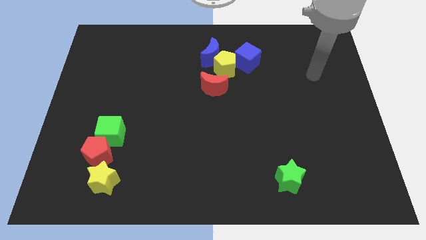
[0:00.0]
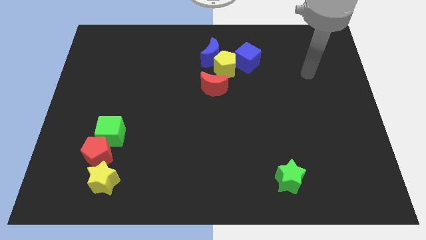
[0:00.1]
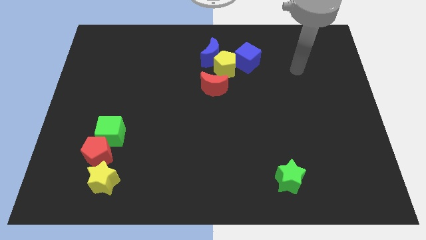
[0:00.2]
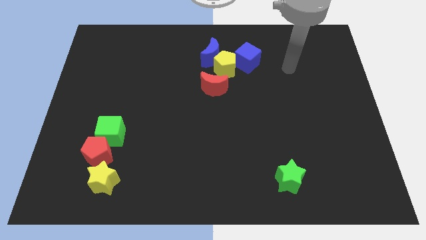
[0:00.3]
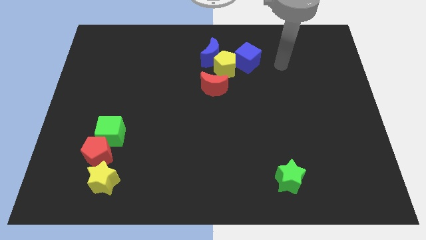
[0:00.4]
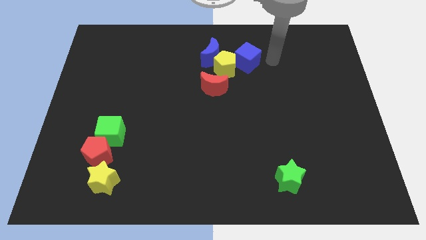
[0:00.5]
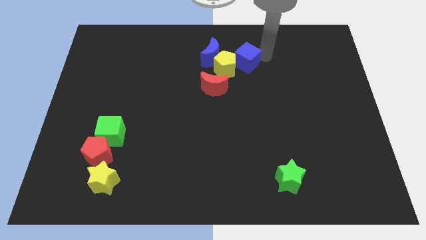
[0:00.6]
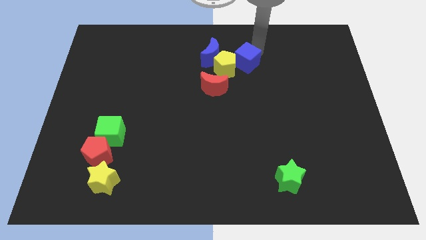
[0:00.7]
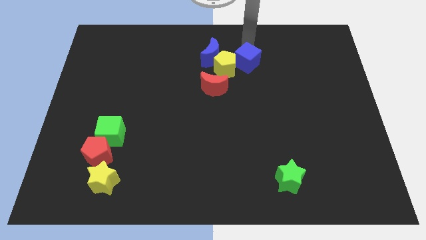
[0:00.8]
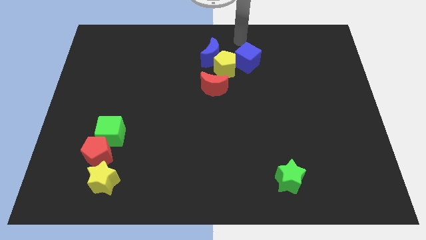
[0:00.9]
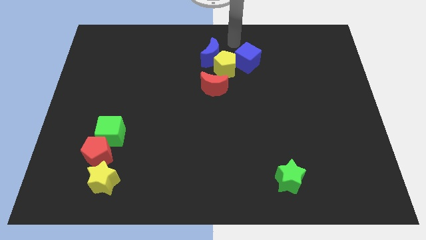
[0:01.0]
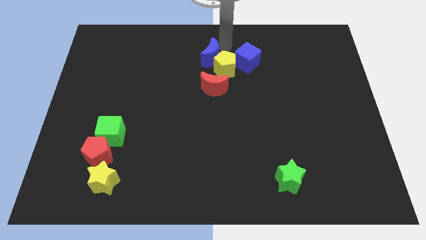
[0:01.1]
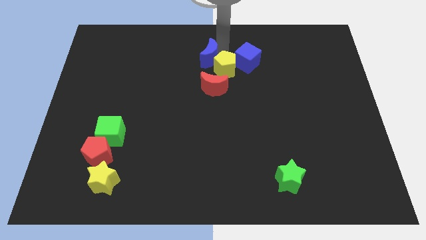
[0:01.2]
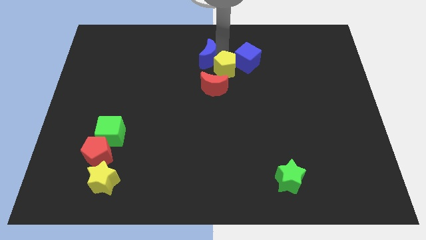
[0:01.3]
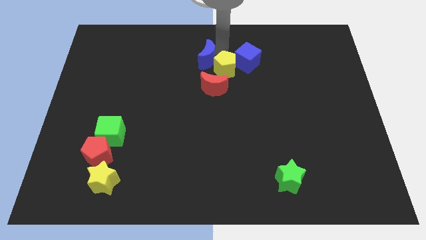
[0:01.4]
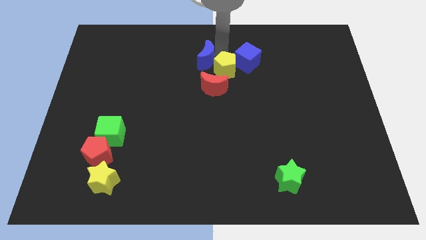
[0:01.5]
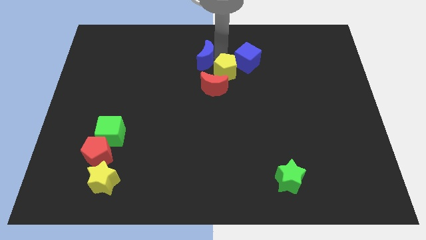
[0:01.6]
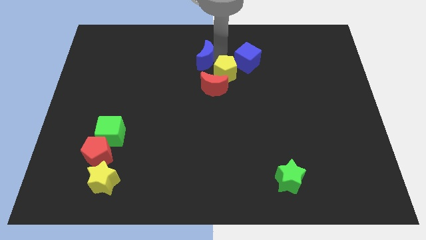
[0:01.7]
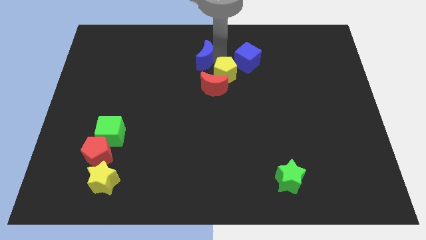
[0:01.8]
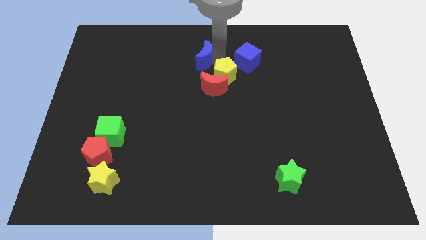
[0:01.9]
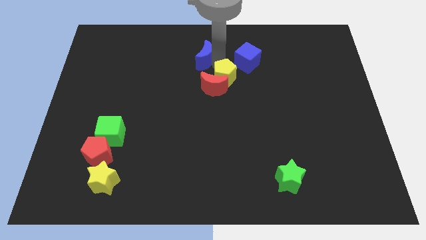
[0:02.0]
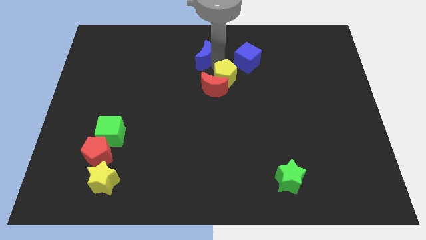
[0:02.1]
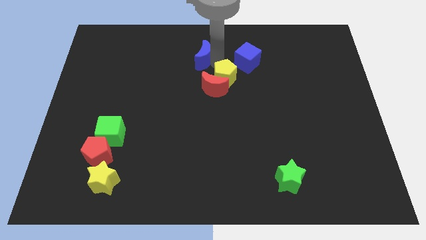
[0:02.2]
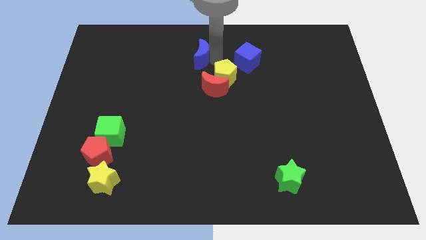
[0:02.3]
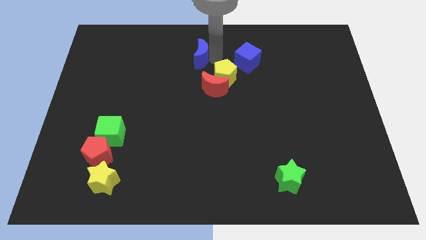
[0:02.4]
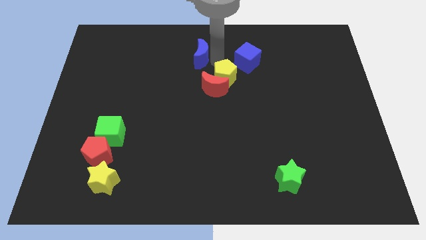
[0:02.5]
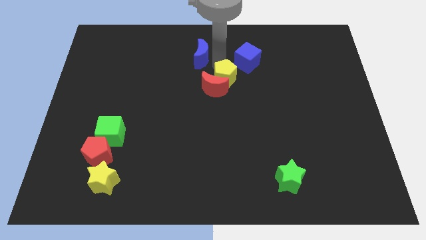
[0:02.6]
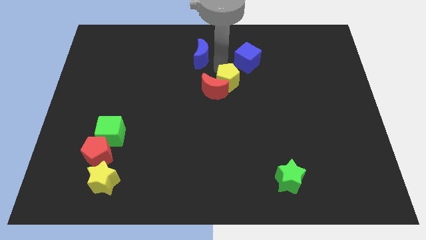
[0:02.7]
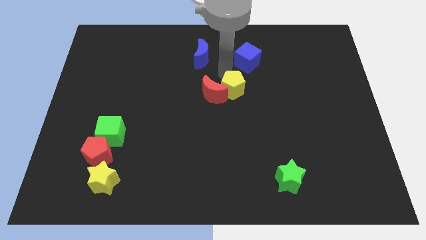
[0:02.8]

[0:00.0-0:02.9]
slightly slide the yellow pentagon downwards

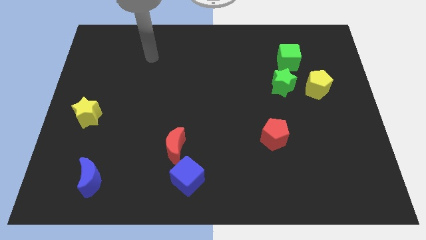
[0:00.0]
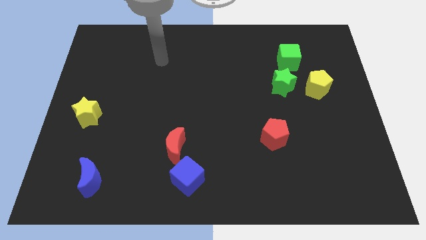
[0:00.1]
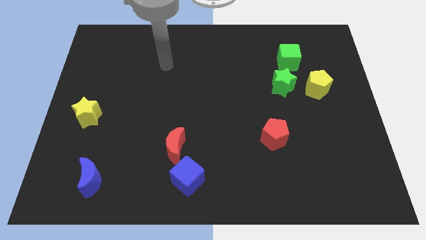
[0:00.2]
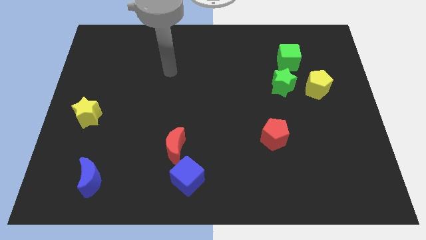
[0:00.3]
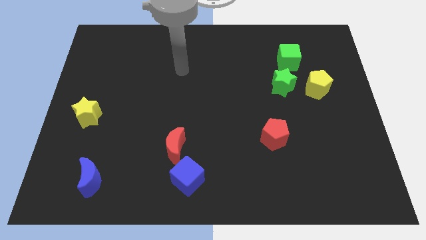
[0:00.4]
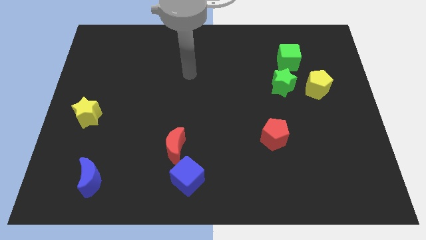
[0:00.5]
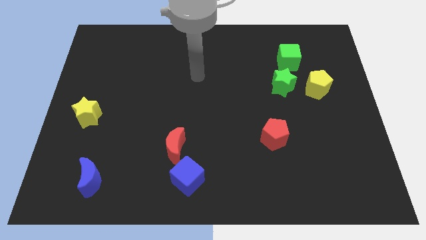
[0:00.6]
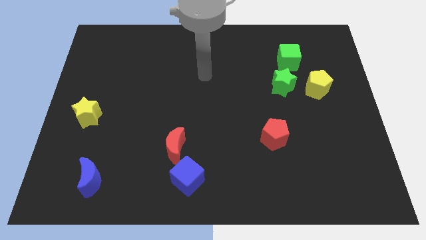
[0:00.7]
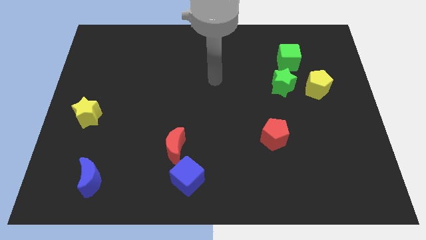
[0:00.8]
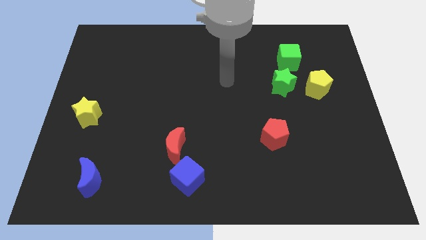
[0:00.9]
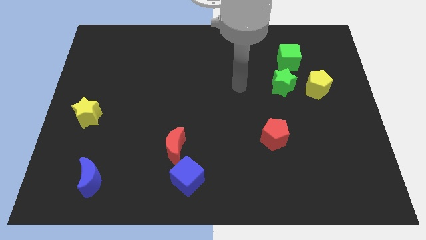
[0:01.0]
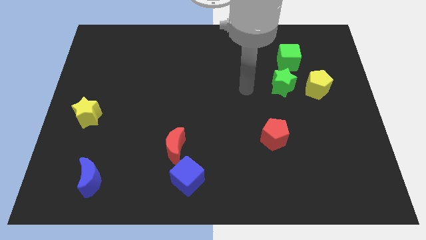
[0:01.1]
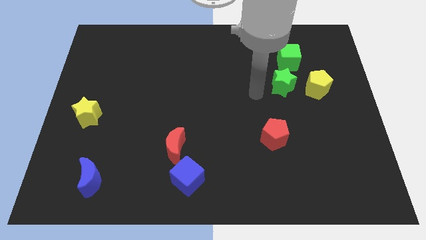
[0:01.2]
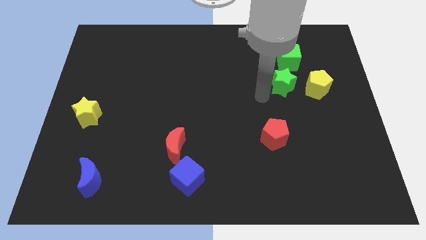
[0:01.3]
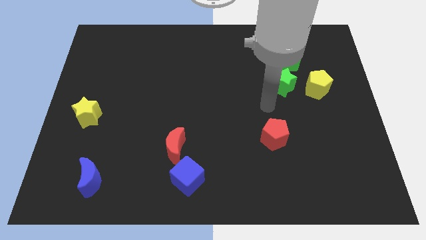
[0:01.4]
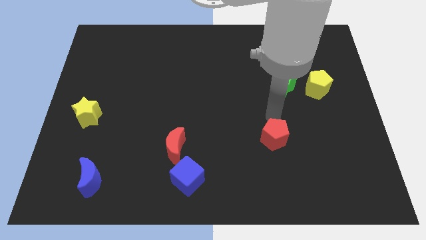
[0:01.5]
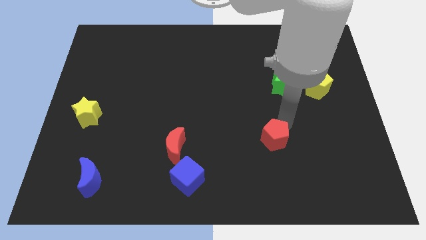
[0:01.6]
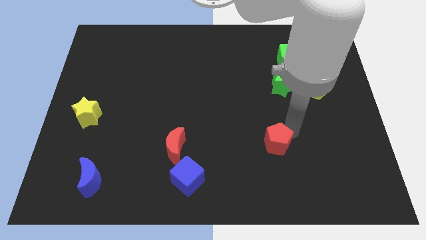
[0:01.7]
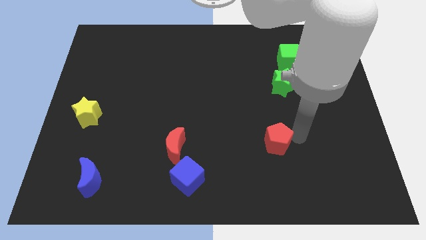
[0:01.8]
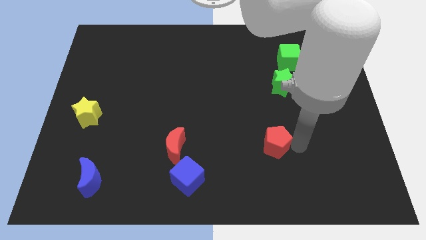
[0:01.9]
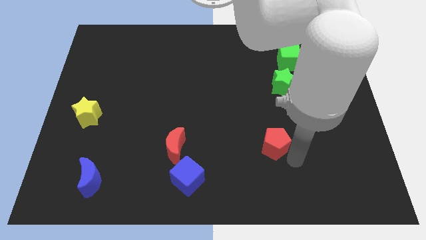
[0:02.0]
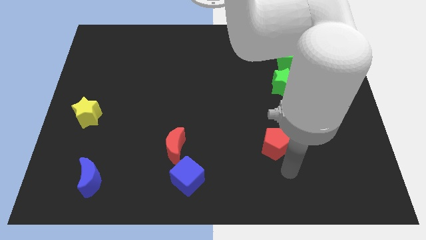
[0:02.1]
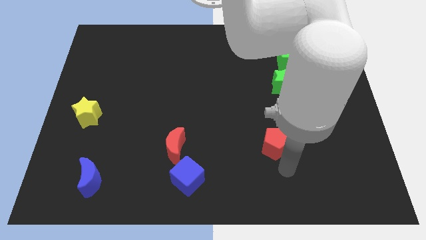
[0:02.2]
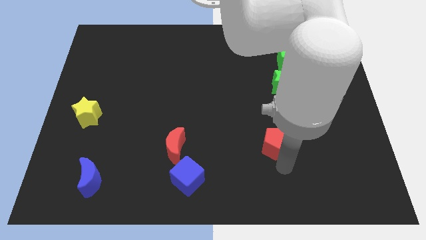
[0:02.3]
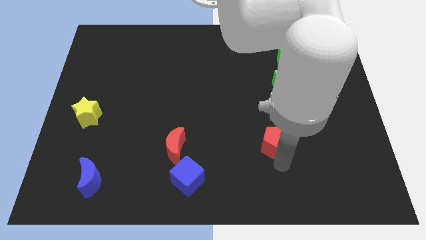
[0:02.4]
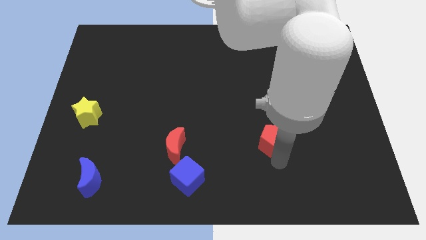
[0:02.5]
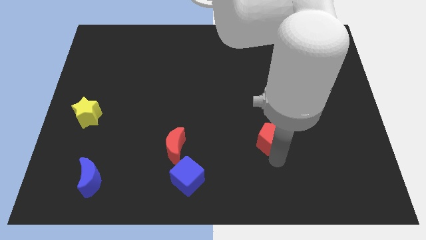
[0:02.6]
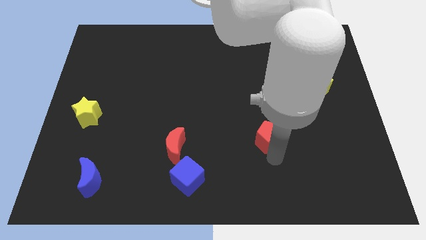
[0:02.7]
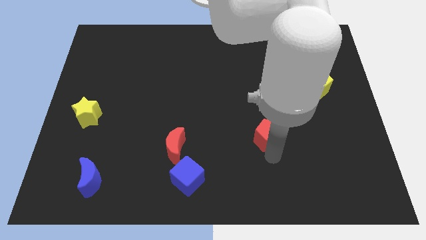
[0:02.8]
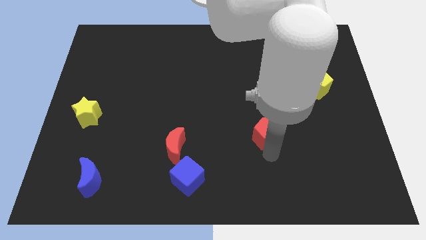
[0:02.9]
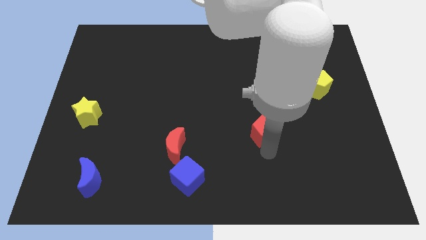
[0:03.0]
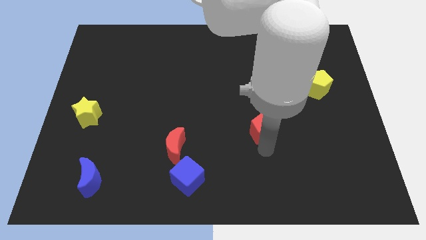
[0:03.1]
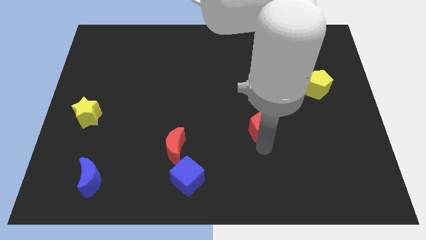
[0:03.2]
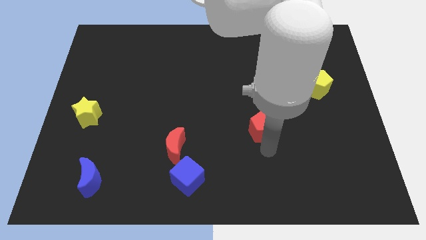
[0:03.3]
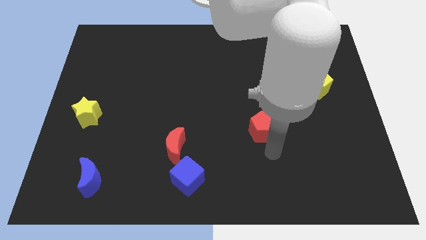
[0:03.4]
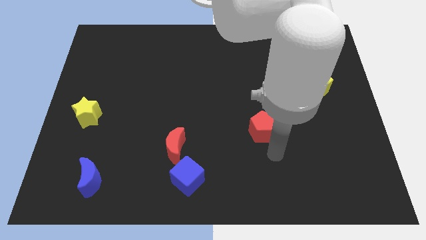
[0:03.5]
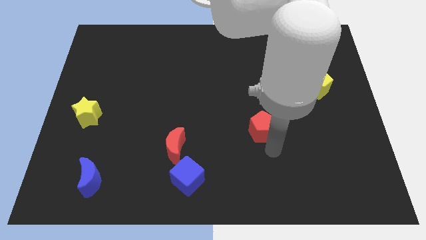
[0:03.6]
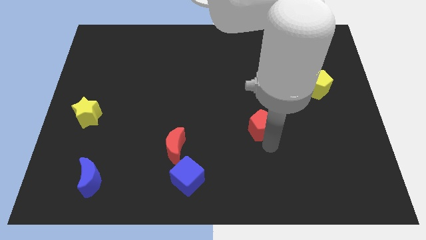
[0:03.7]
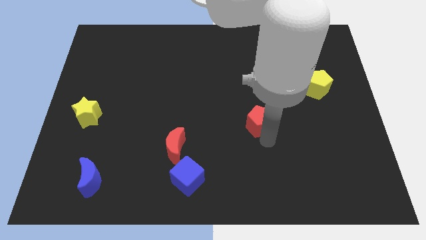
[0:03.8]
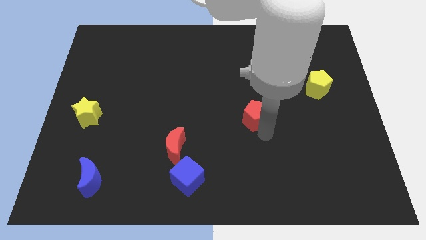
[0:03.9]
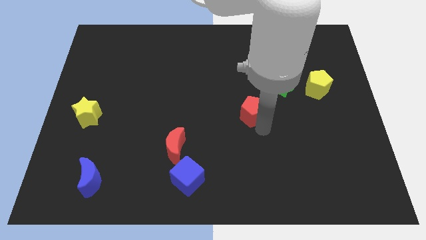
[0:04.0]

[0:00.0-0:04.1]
slide the red pentagon diagonally up and to the left a bit

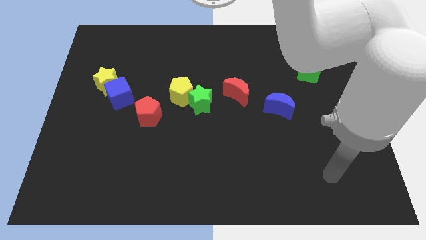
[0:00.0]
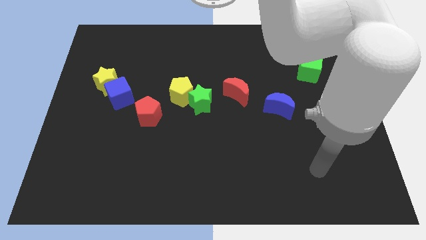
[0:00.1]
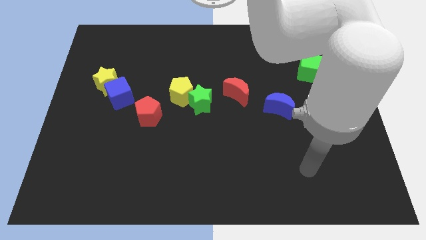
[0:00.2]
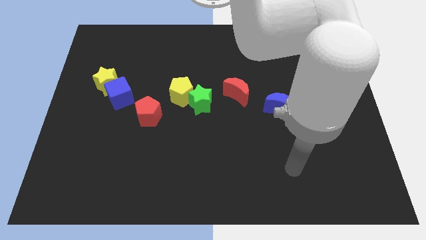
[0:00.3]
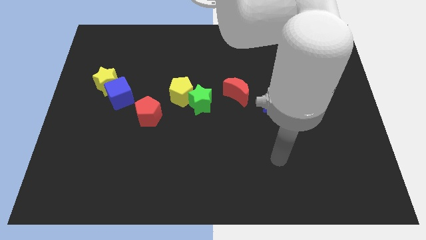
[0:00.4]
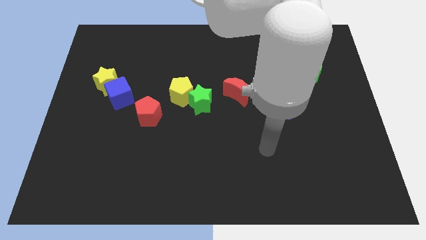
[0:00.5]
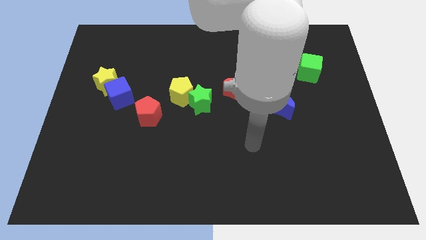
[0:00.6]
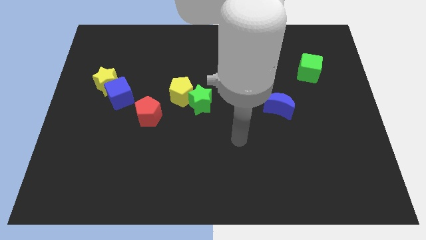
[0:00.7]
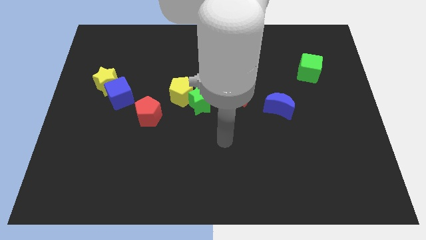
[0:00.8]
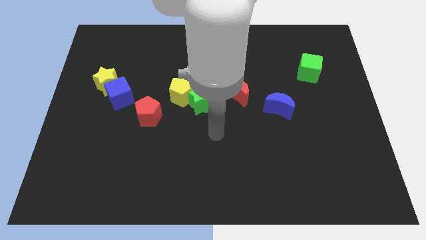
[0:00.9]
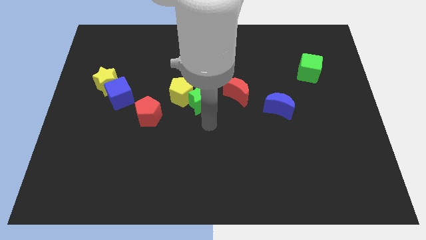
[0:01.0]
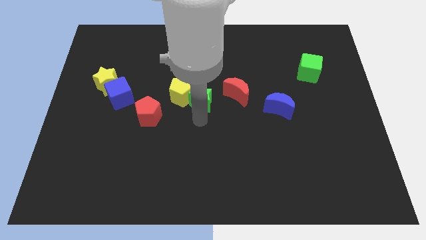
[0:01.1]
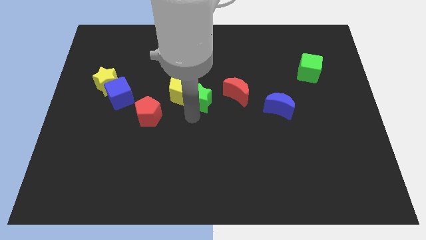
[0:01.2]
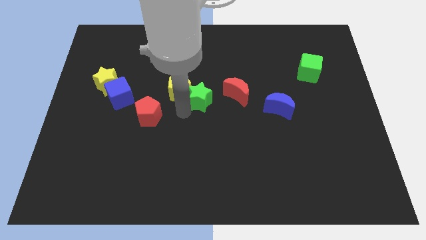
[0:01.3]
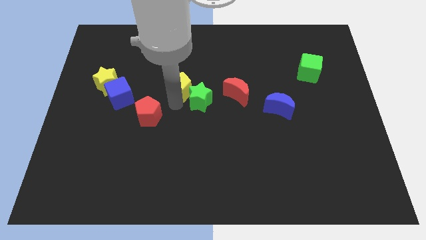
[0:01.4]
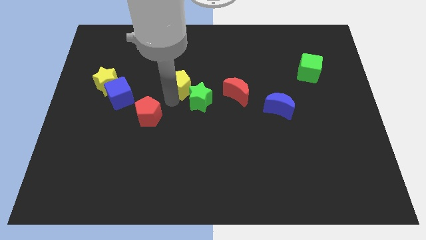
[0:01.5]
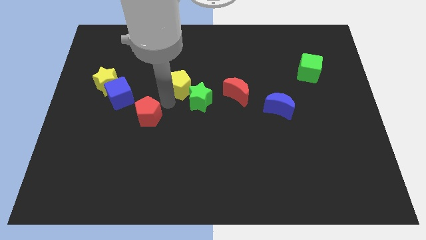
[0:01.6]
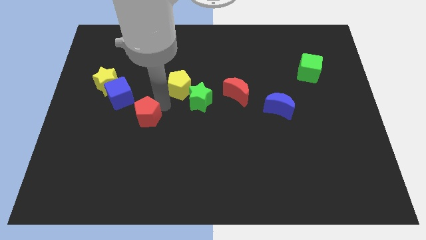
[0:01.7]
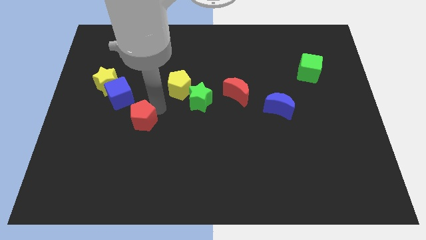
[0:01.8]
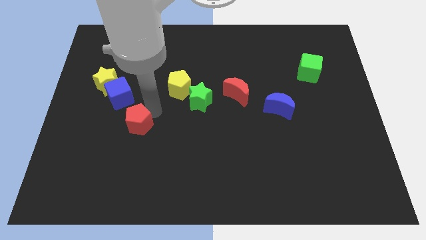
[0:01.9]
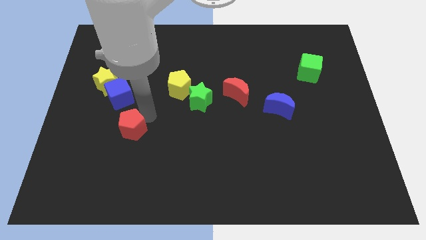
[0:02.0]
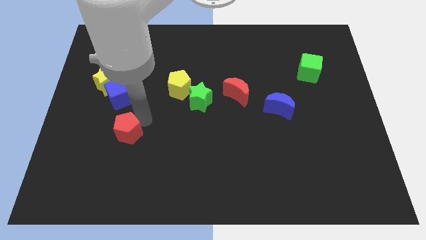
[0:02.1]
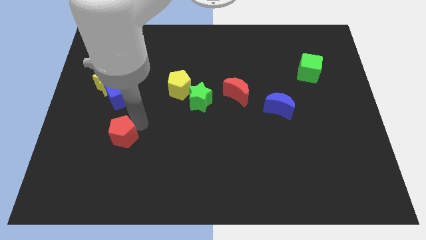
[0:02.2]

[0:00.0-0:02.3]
move the red pentagon a bit down and left
